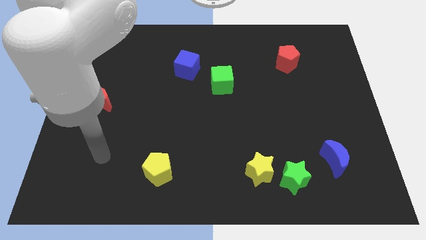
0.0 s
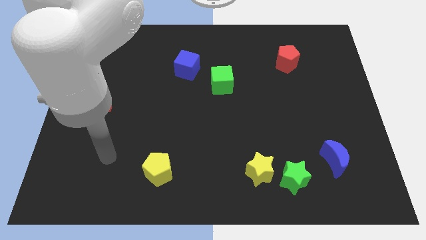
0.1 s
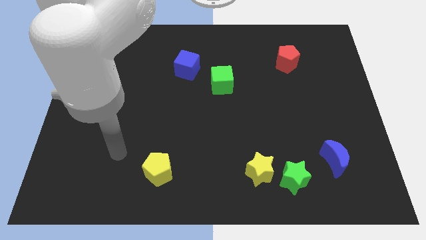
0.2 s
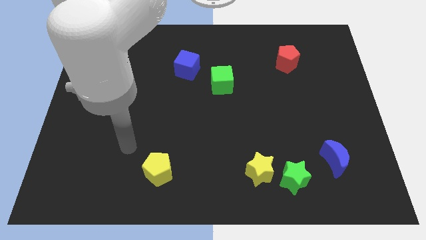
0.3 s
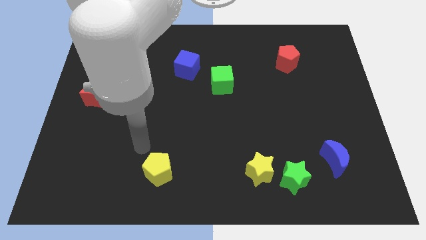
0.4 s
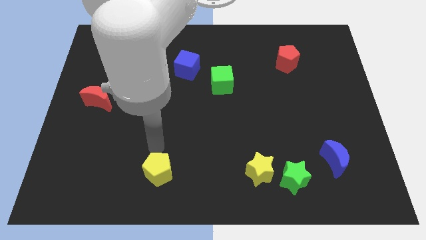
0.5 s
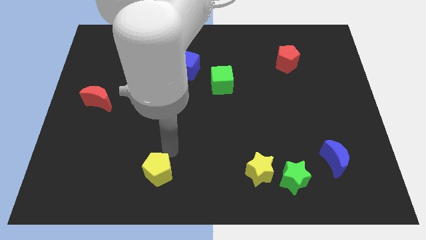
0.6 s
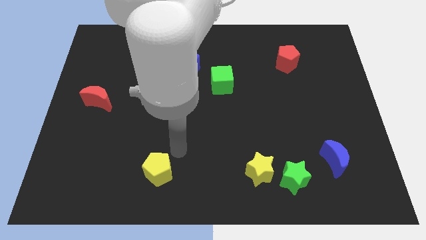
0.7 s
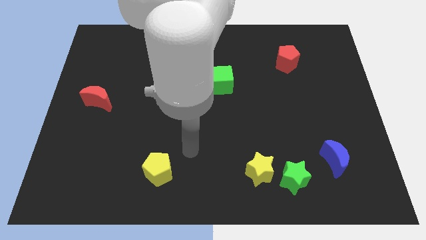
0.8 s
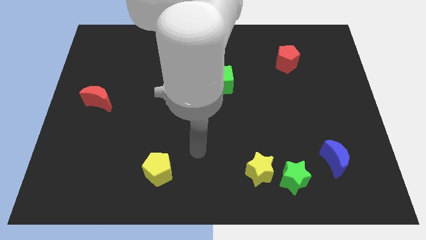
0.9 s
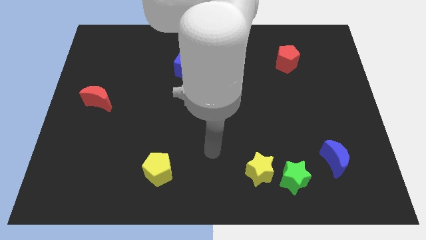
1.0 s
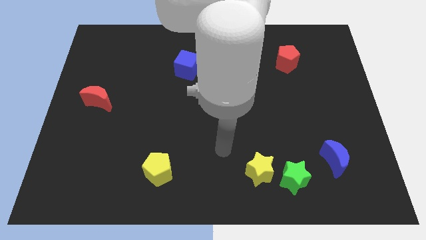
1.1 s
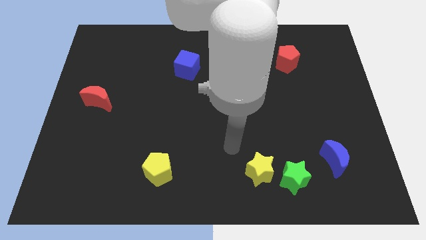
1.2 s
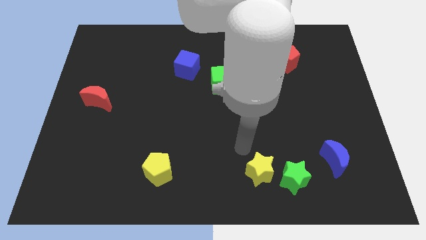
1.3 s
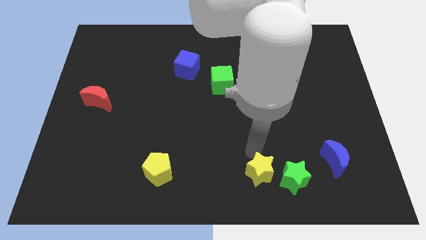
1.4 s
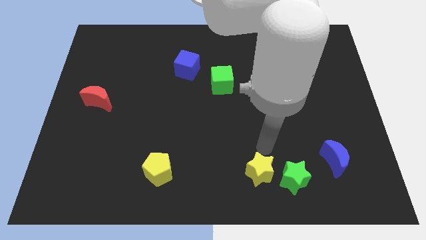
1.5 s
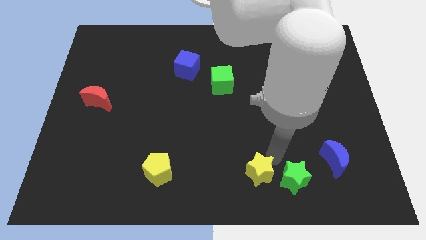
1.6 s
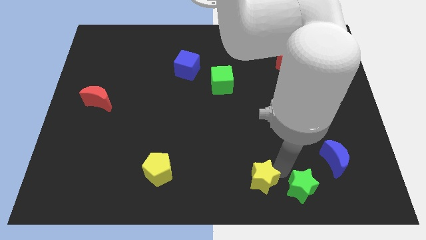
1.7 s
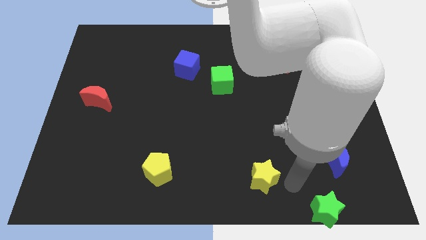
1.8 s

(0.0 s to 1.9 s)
move the yellow star away from the green star

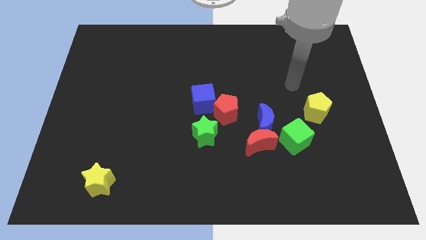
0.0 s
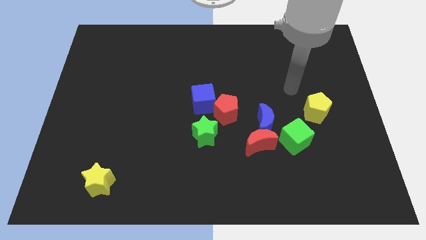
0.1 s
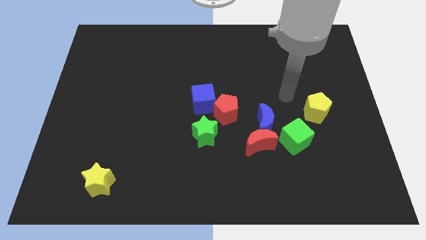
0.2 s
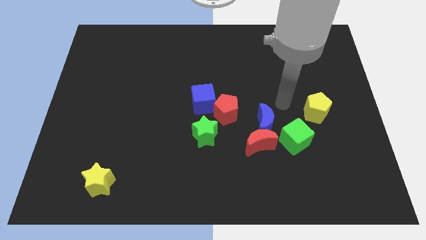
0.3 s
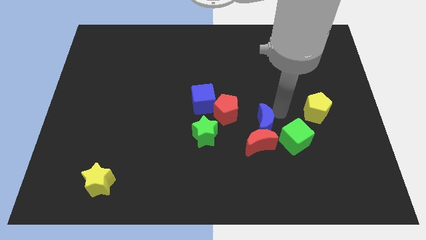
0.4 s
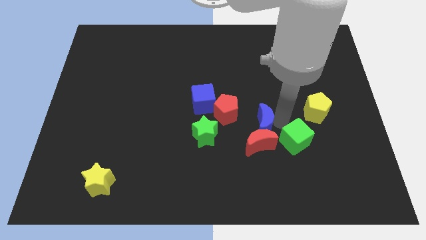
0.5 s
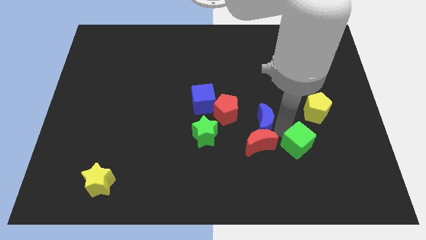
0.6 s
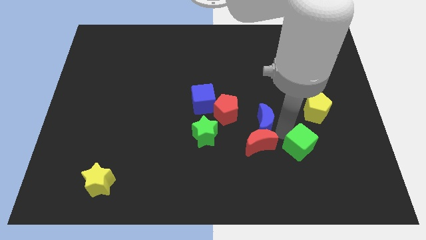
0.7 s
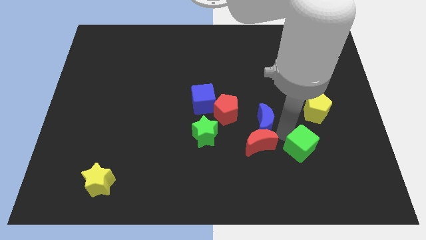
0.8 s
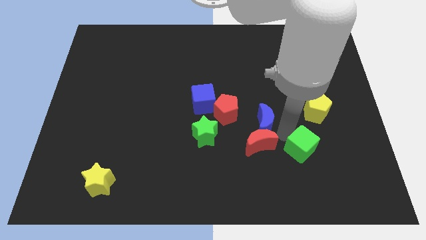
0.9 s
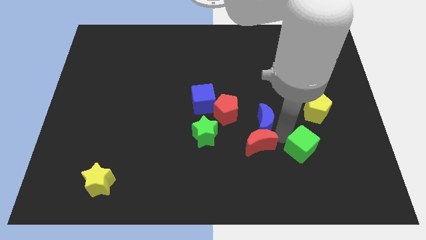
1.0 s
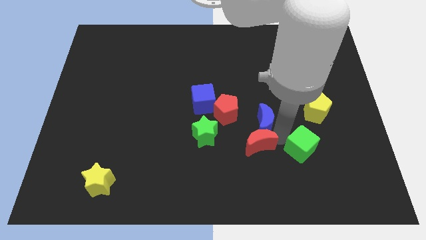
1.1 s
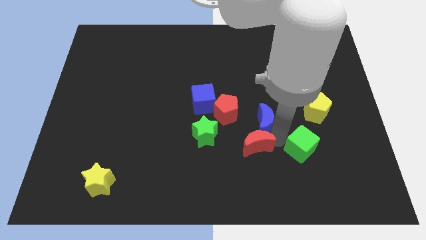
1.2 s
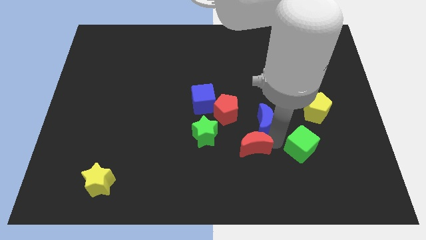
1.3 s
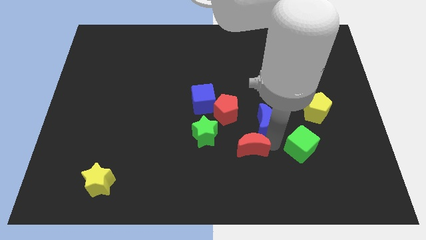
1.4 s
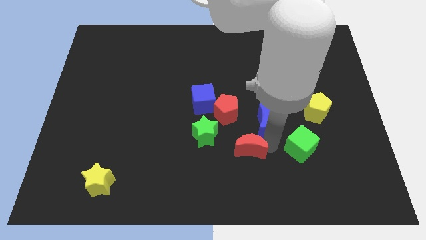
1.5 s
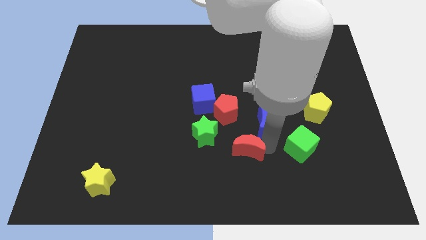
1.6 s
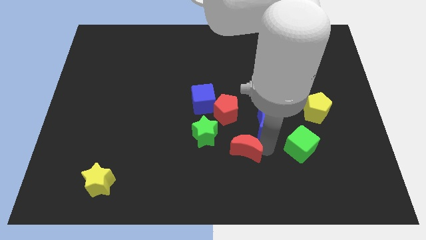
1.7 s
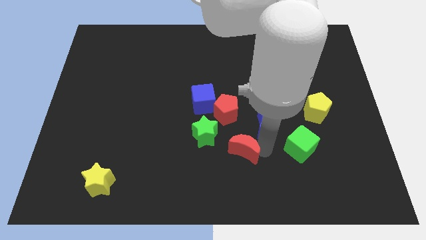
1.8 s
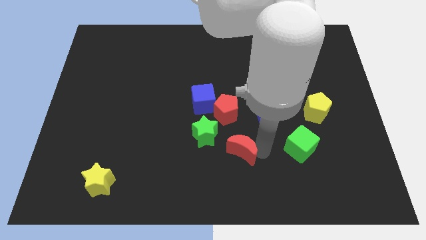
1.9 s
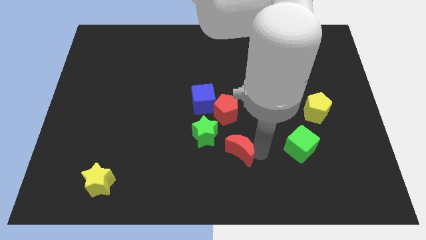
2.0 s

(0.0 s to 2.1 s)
separate the red moon from the blue moon and green cube

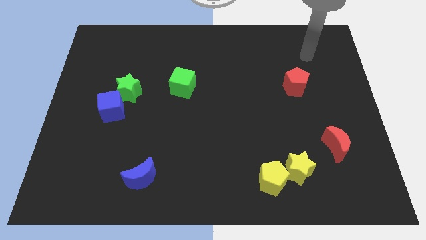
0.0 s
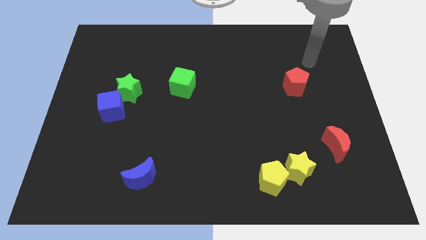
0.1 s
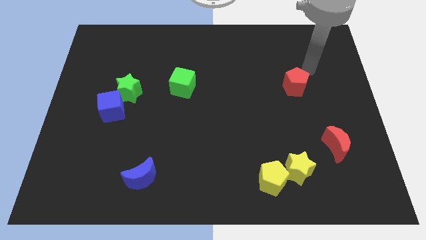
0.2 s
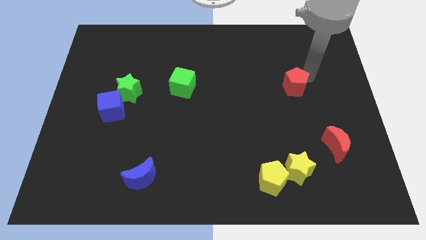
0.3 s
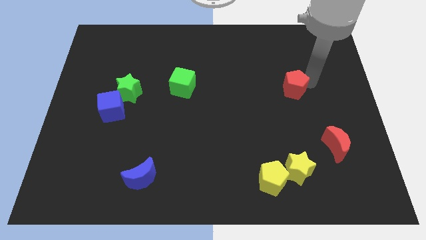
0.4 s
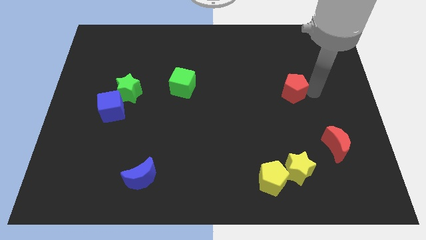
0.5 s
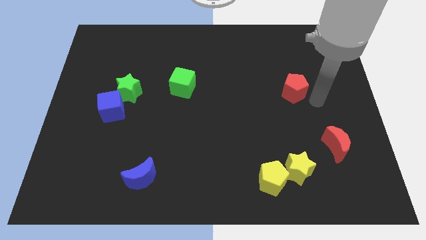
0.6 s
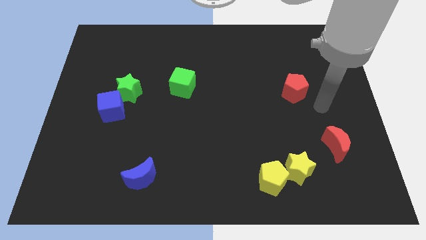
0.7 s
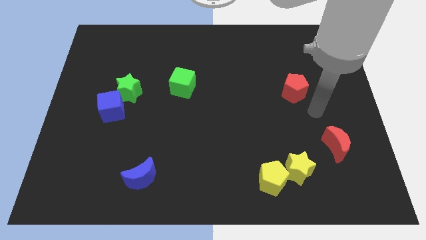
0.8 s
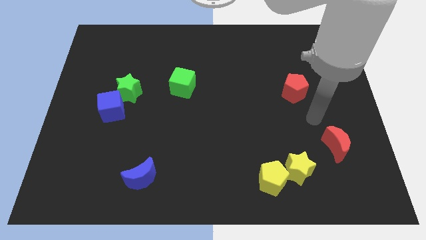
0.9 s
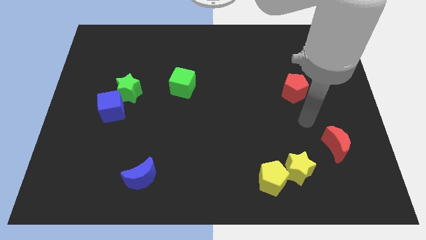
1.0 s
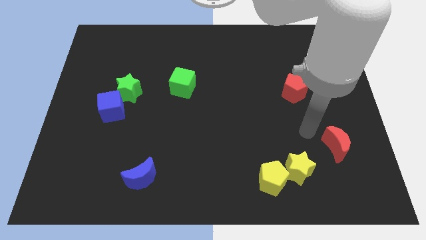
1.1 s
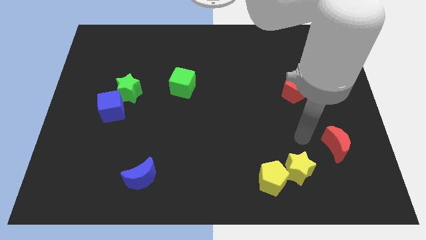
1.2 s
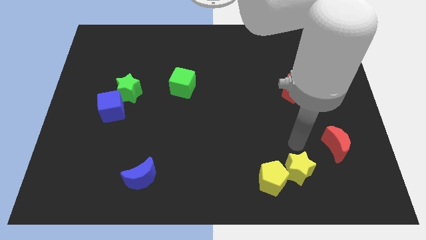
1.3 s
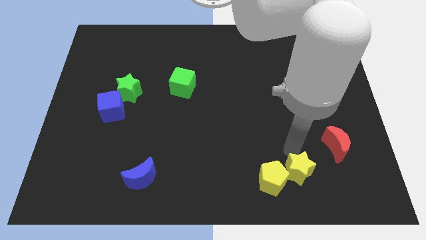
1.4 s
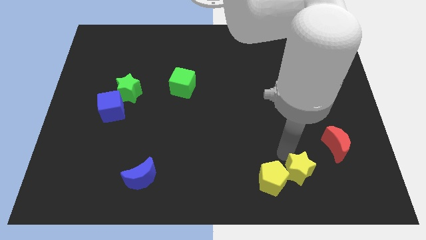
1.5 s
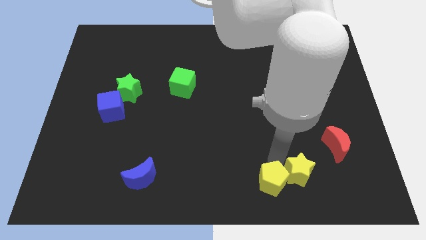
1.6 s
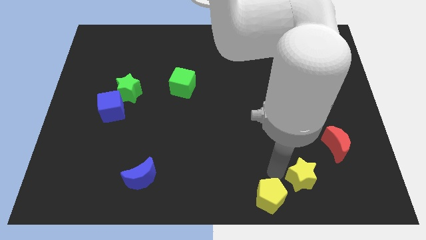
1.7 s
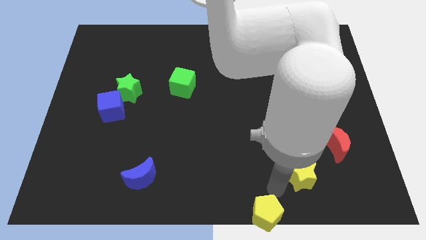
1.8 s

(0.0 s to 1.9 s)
separate the yellow star from the yellow pentagon

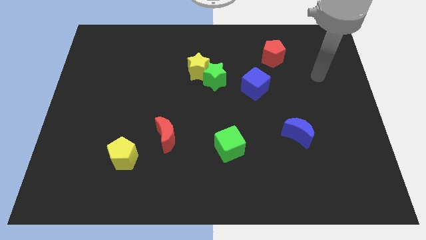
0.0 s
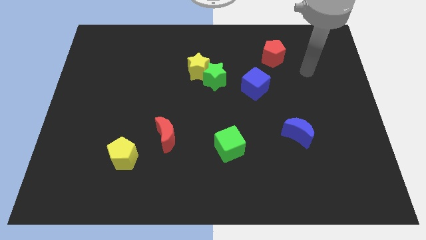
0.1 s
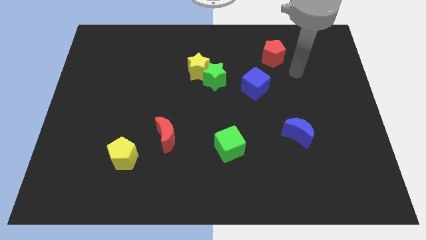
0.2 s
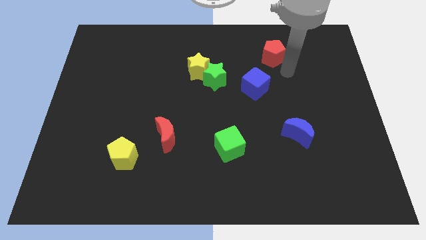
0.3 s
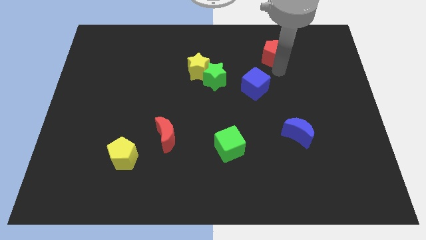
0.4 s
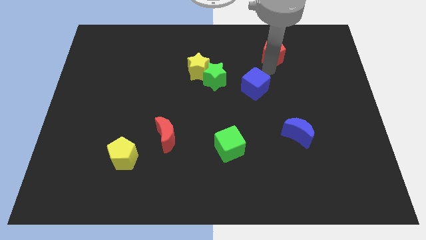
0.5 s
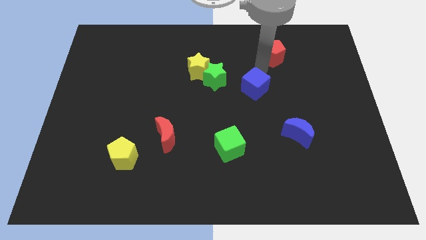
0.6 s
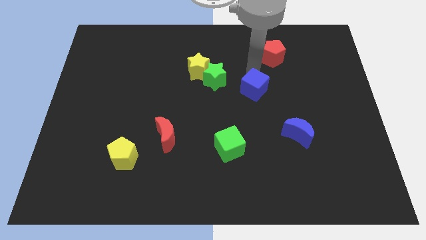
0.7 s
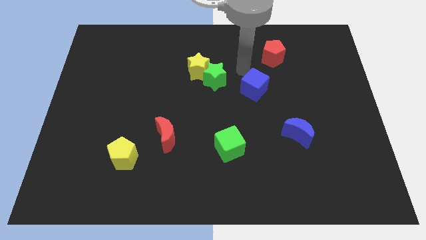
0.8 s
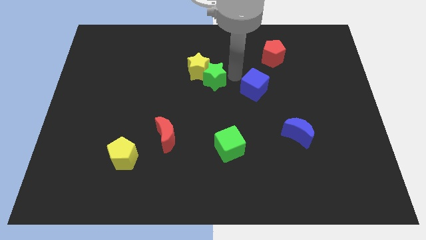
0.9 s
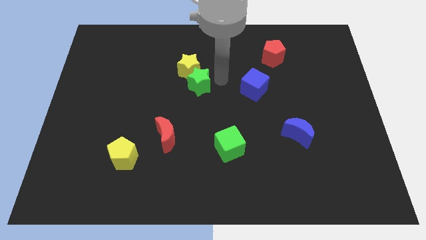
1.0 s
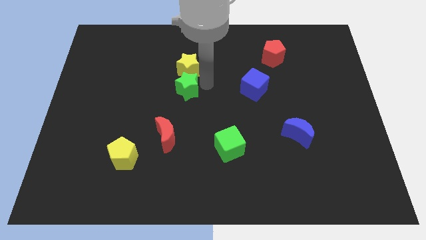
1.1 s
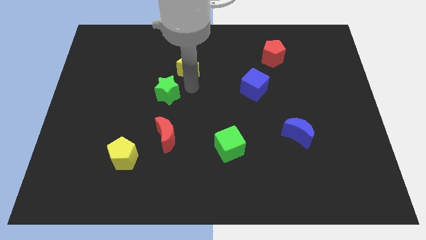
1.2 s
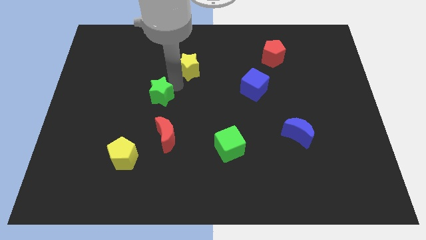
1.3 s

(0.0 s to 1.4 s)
separate the yellow star from the green star

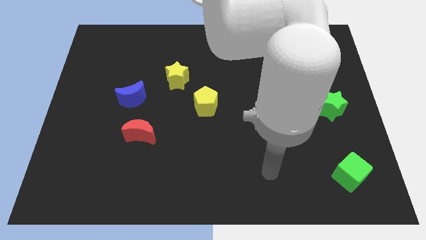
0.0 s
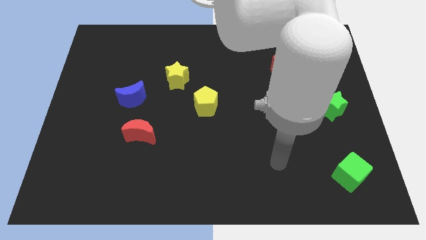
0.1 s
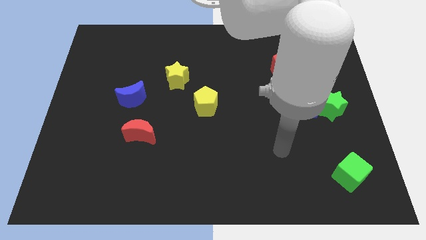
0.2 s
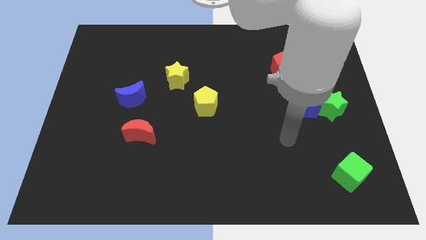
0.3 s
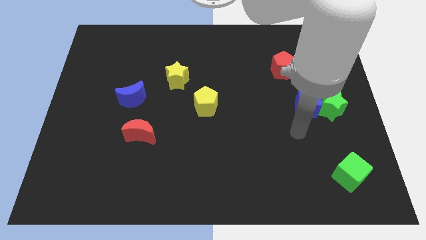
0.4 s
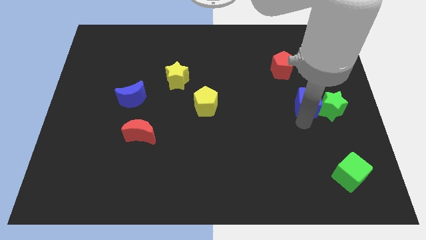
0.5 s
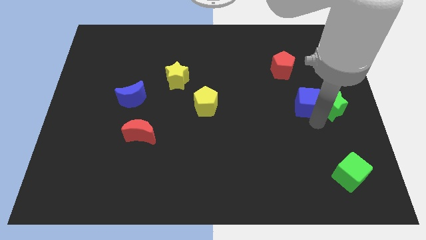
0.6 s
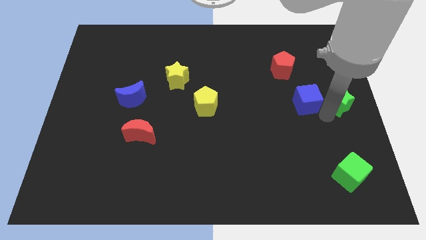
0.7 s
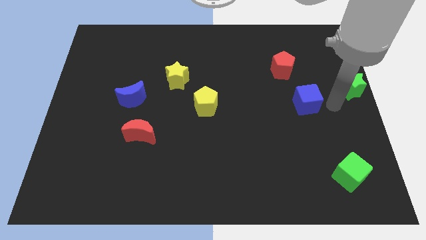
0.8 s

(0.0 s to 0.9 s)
pull the blue cube apart from the green star

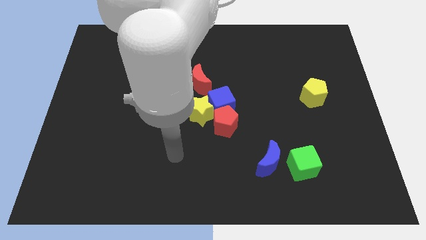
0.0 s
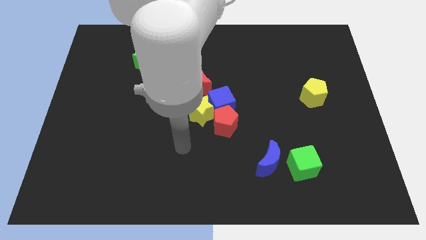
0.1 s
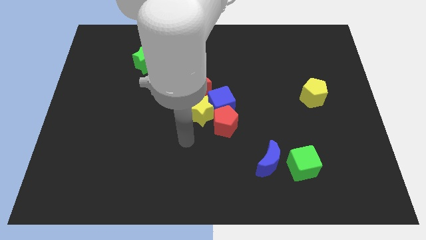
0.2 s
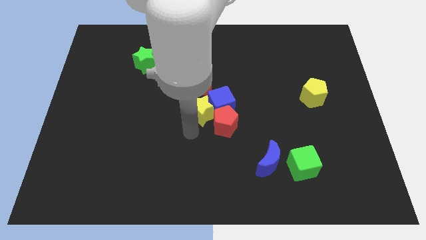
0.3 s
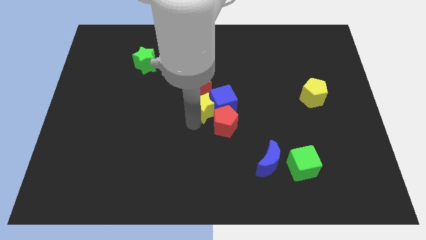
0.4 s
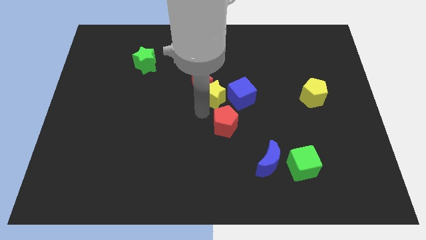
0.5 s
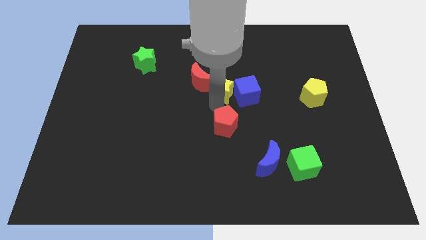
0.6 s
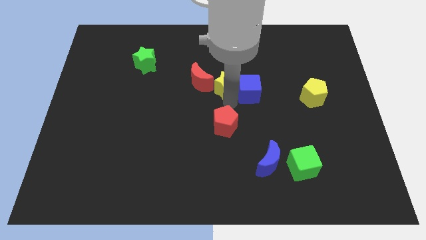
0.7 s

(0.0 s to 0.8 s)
separate the red pentagon from the blue cube and yellow star

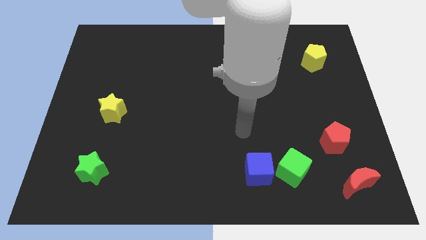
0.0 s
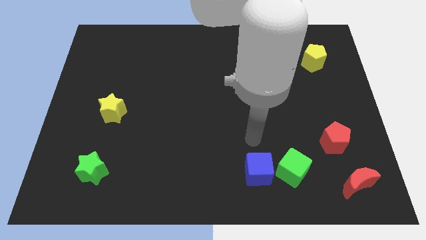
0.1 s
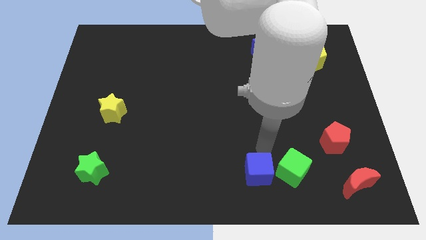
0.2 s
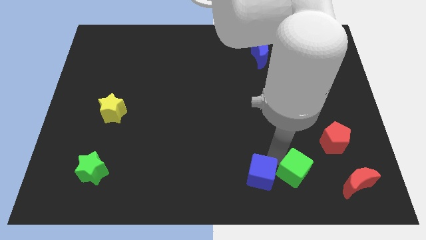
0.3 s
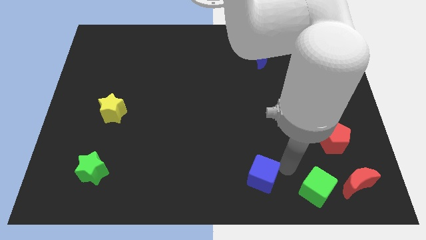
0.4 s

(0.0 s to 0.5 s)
pull the blue cube apart from the green cube
